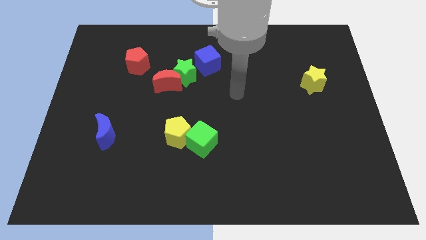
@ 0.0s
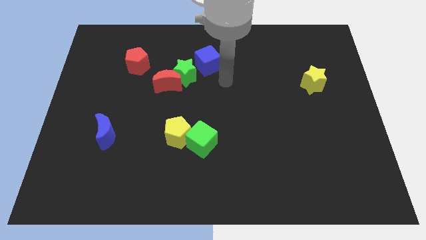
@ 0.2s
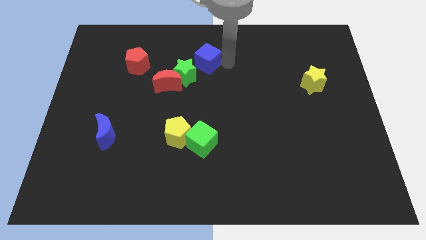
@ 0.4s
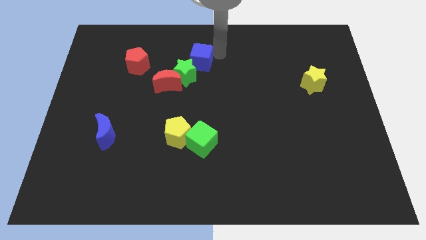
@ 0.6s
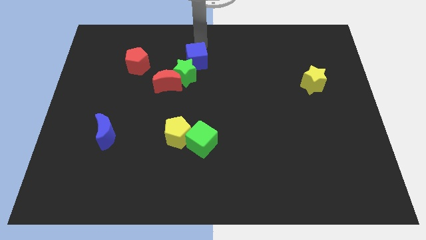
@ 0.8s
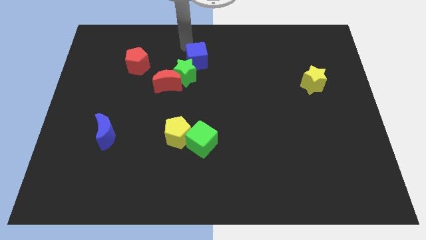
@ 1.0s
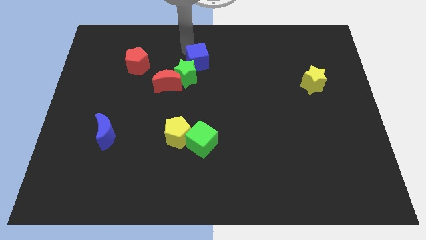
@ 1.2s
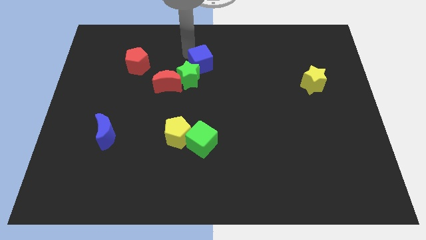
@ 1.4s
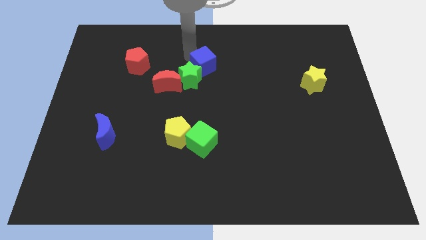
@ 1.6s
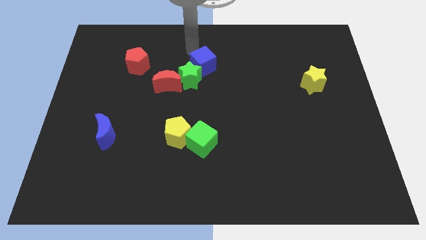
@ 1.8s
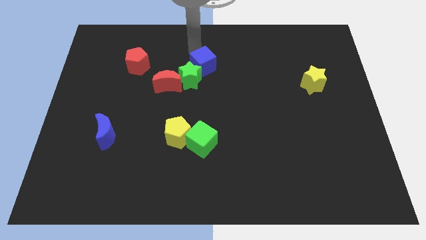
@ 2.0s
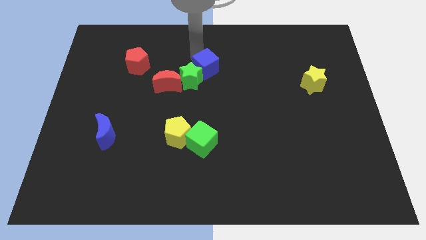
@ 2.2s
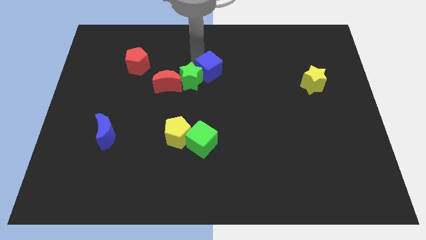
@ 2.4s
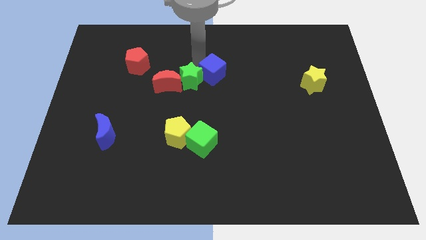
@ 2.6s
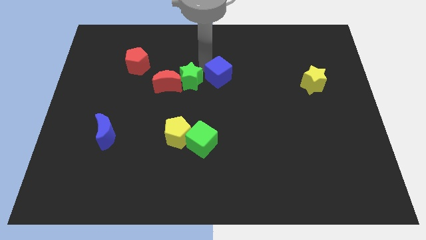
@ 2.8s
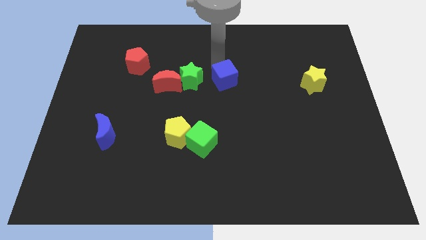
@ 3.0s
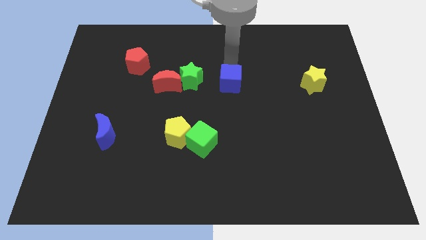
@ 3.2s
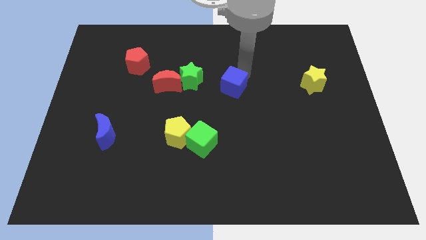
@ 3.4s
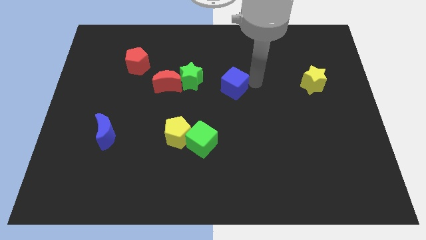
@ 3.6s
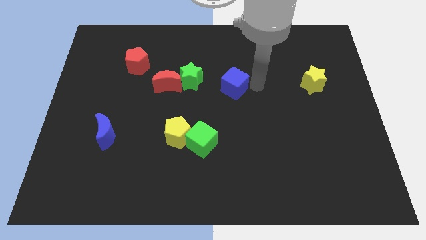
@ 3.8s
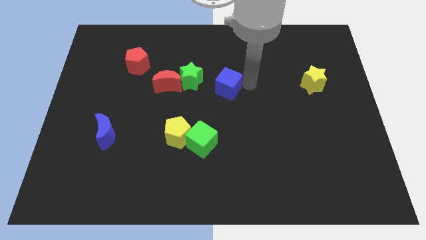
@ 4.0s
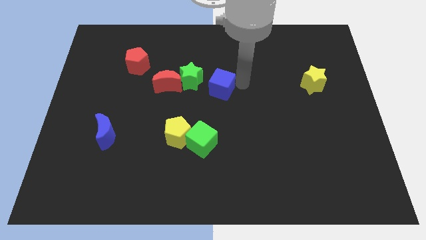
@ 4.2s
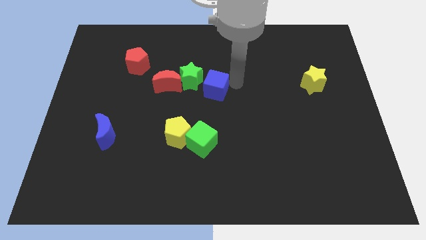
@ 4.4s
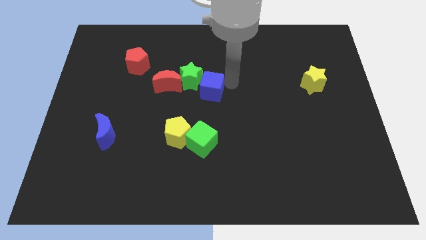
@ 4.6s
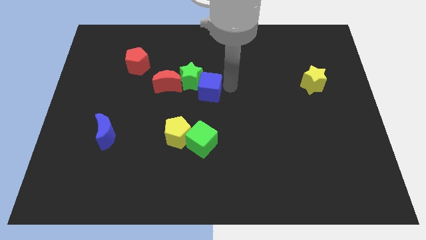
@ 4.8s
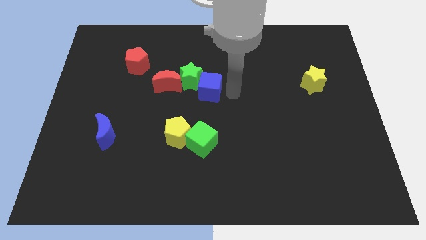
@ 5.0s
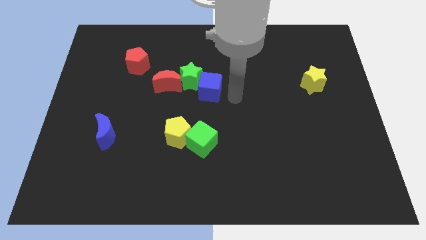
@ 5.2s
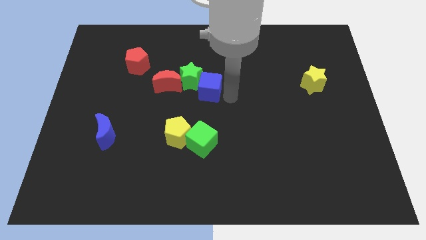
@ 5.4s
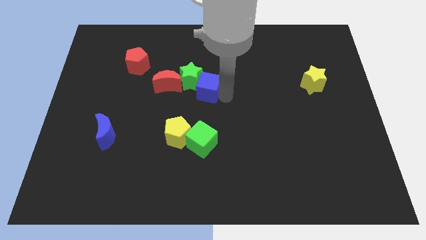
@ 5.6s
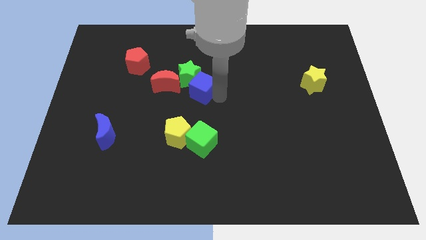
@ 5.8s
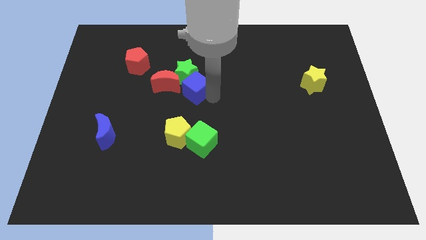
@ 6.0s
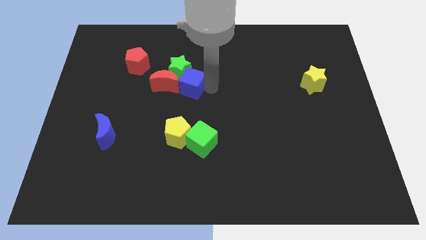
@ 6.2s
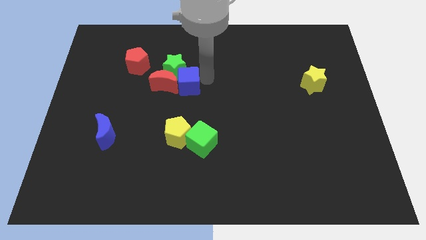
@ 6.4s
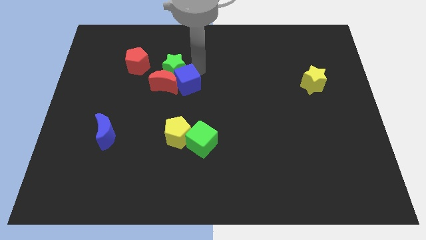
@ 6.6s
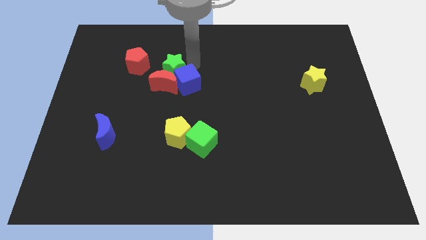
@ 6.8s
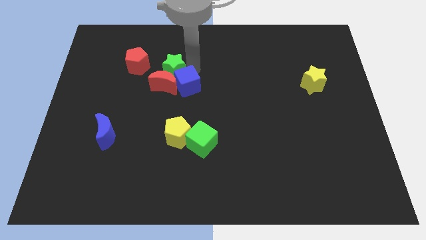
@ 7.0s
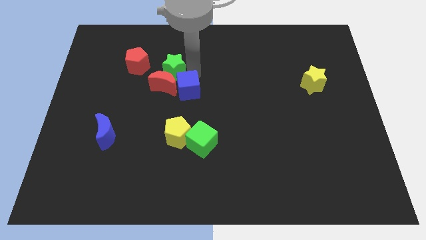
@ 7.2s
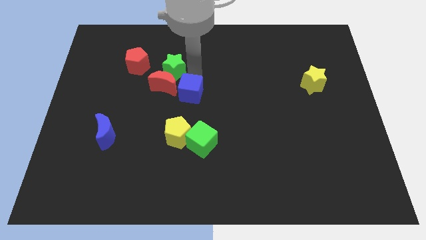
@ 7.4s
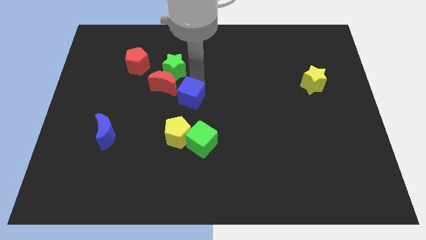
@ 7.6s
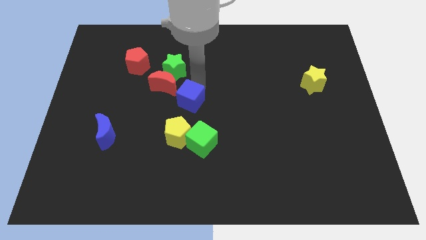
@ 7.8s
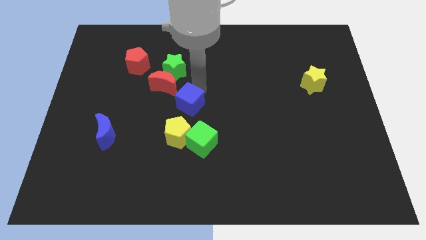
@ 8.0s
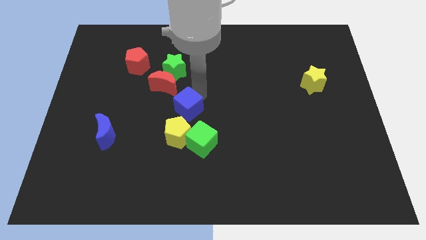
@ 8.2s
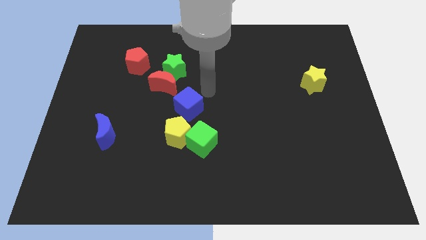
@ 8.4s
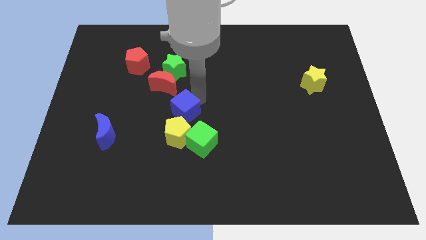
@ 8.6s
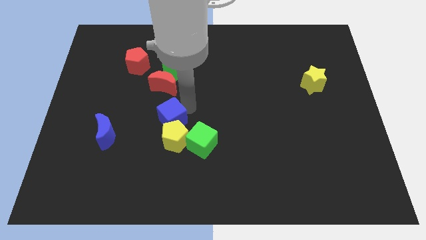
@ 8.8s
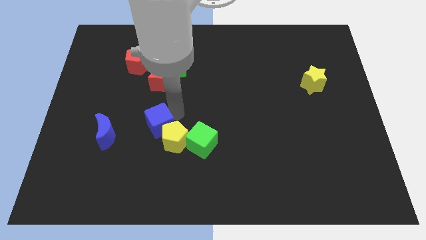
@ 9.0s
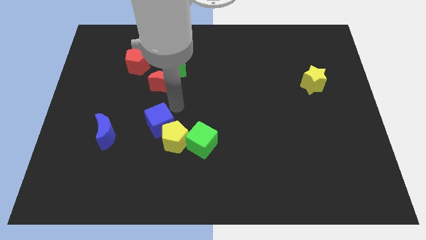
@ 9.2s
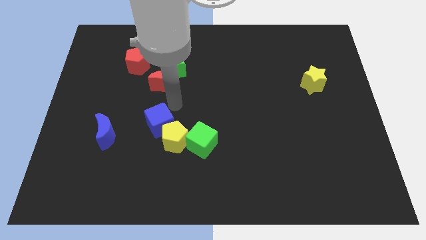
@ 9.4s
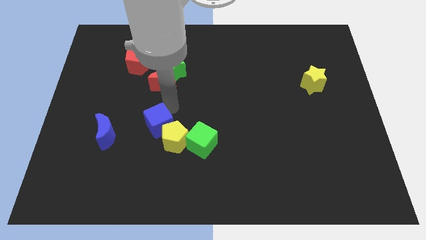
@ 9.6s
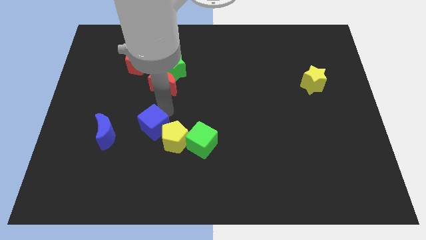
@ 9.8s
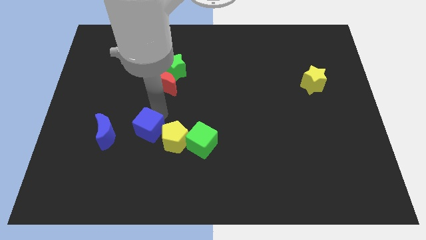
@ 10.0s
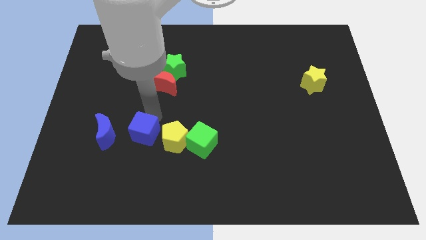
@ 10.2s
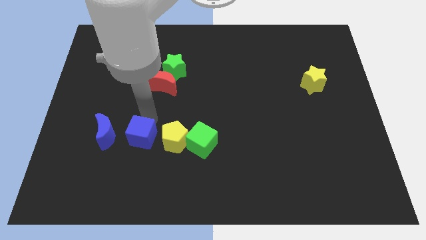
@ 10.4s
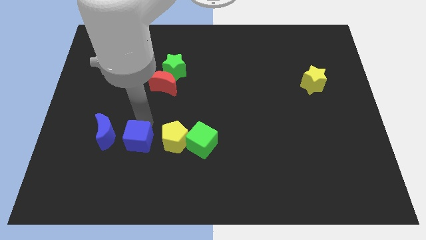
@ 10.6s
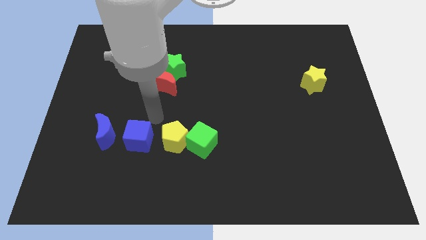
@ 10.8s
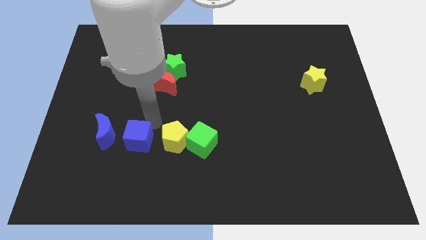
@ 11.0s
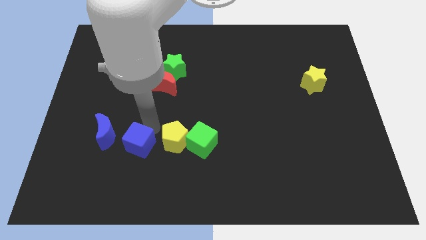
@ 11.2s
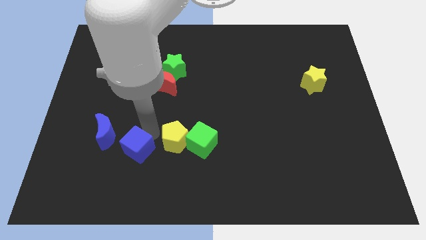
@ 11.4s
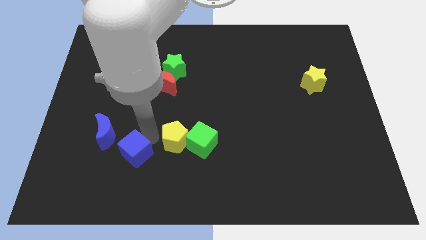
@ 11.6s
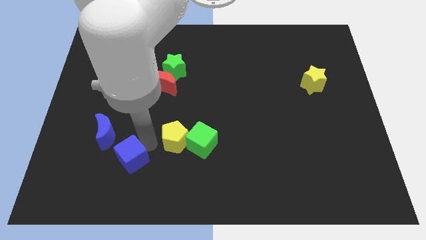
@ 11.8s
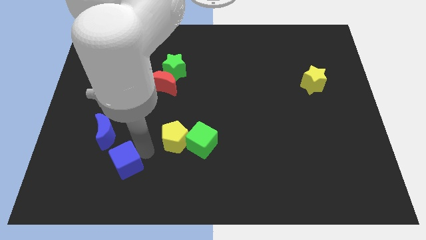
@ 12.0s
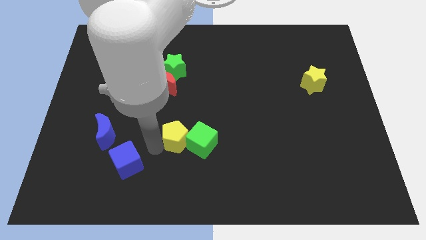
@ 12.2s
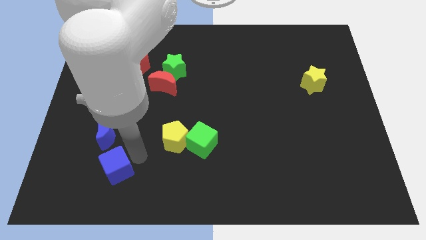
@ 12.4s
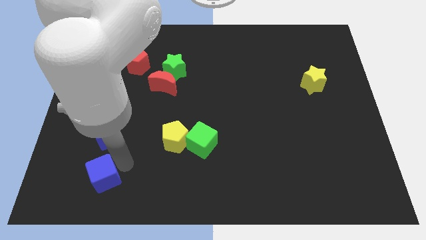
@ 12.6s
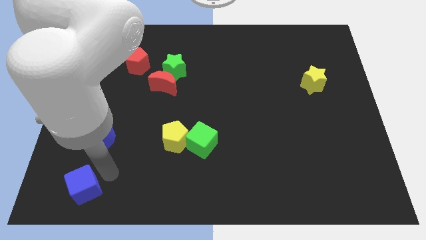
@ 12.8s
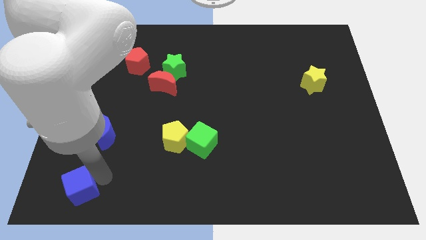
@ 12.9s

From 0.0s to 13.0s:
put the blue cube to the bottom left
